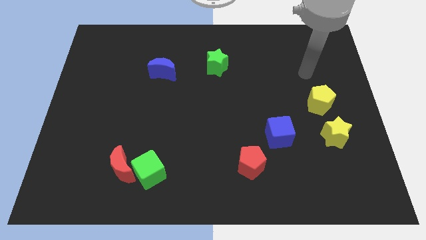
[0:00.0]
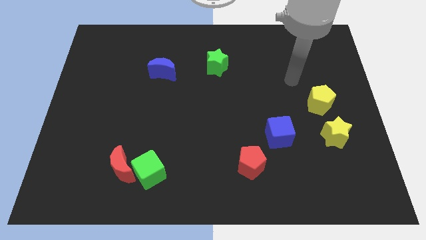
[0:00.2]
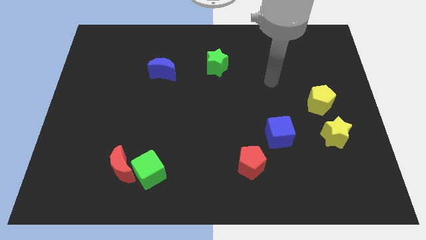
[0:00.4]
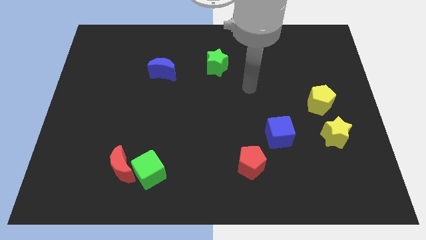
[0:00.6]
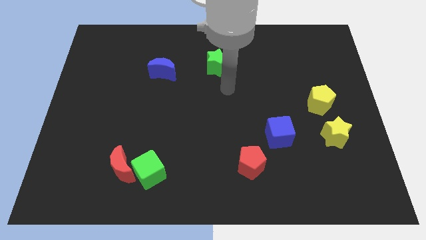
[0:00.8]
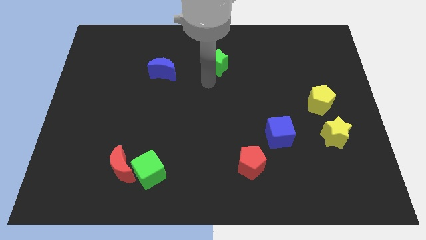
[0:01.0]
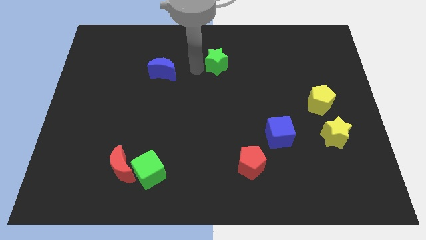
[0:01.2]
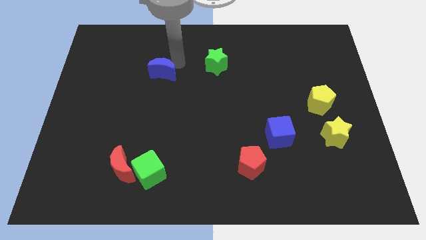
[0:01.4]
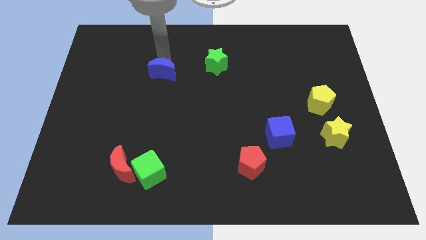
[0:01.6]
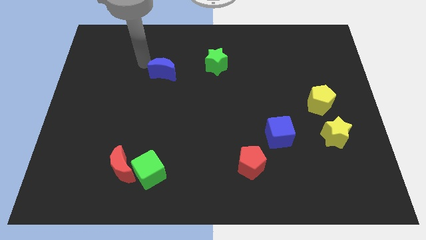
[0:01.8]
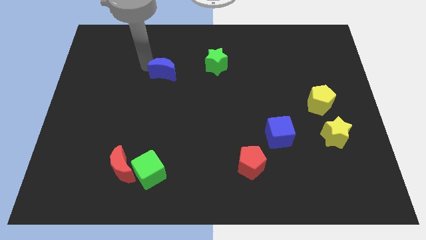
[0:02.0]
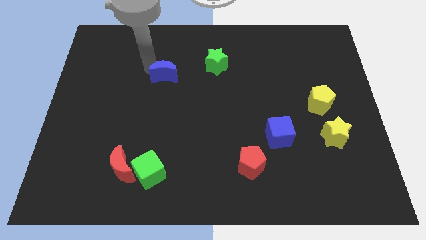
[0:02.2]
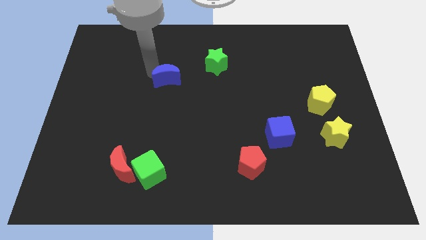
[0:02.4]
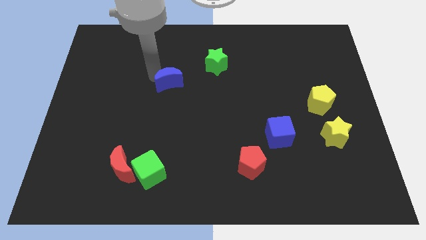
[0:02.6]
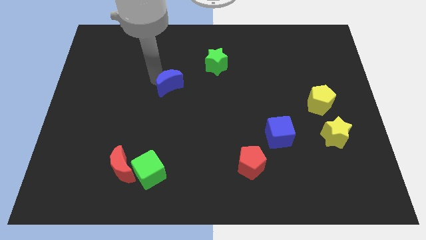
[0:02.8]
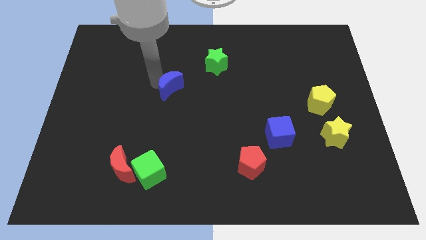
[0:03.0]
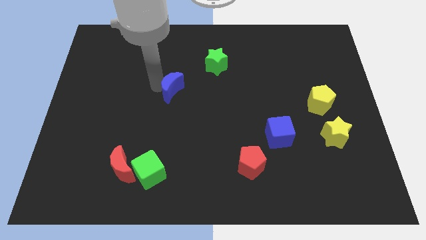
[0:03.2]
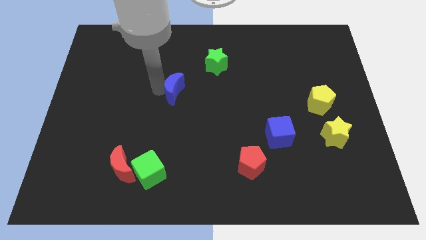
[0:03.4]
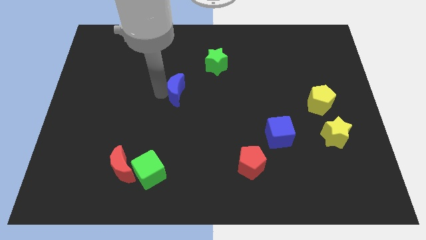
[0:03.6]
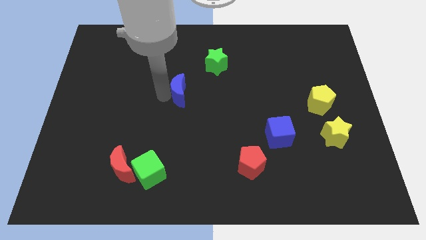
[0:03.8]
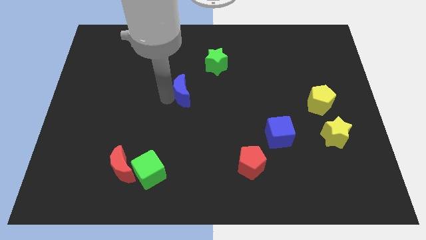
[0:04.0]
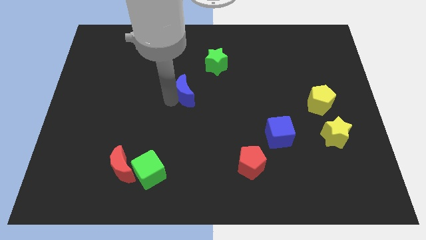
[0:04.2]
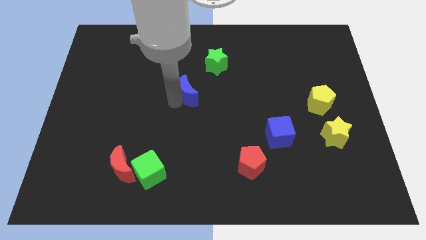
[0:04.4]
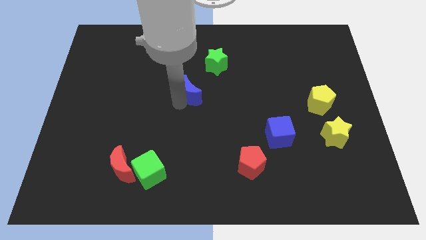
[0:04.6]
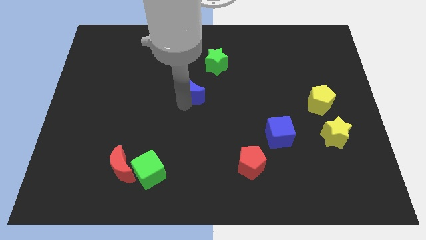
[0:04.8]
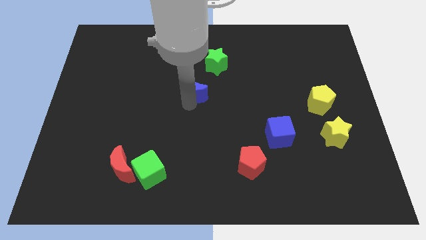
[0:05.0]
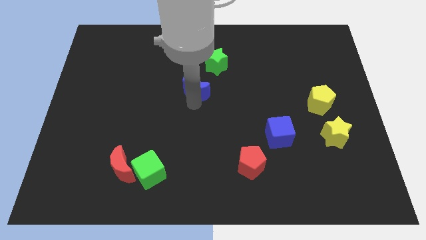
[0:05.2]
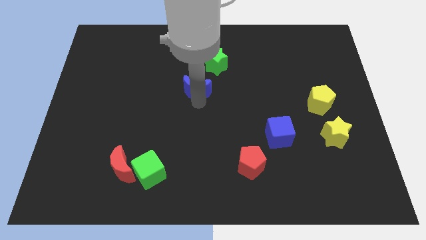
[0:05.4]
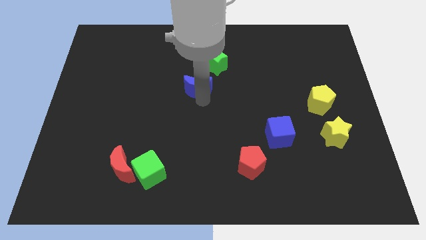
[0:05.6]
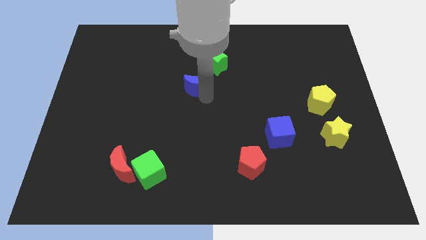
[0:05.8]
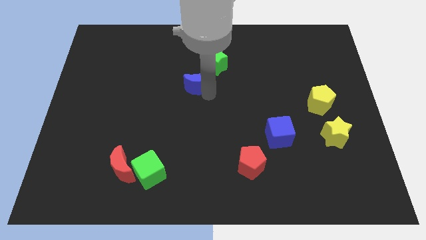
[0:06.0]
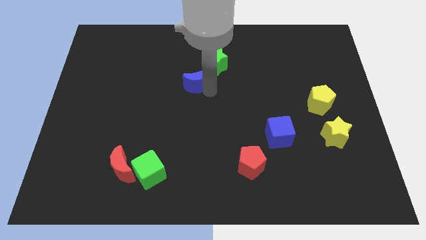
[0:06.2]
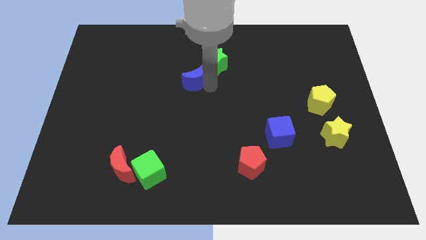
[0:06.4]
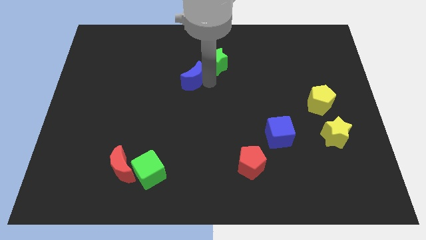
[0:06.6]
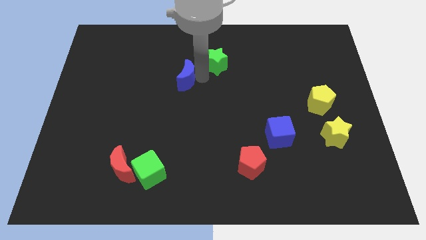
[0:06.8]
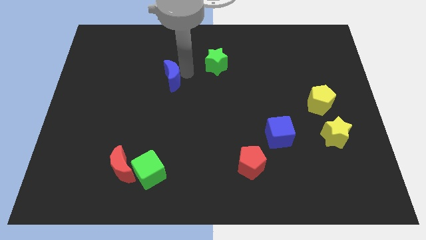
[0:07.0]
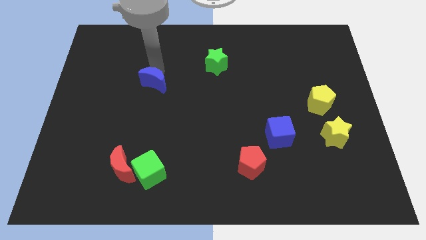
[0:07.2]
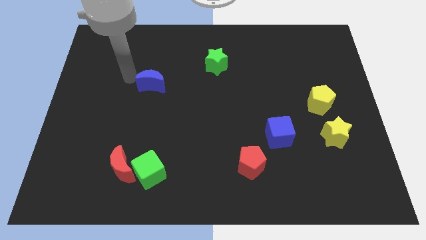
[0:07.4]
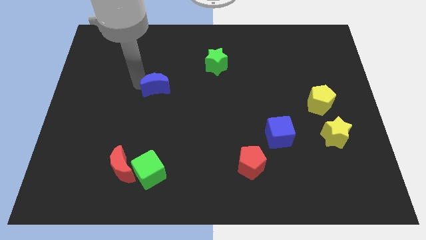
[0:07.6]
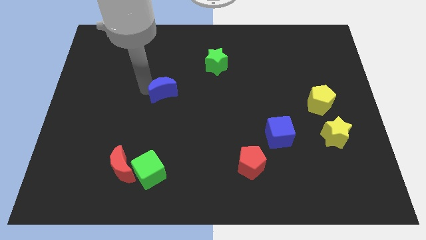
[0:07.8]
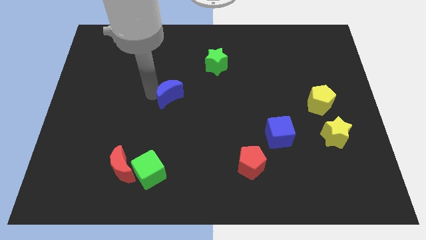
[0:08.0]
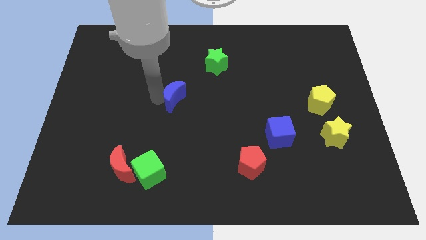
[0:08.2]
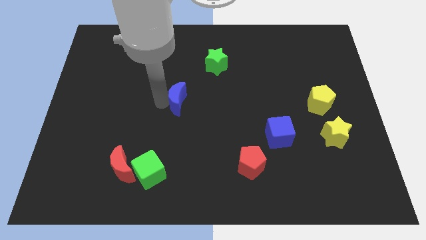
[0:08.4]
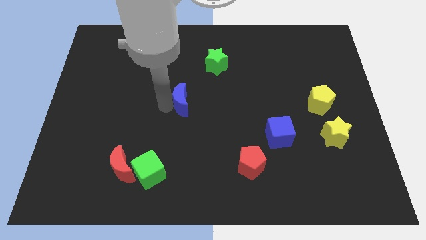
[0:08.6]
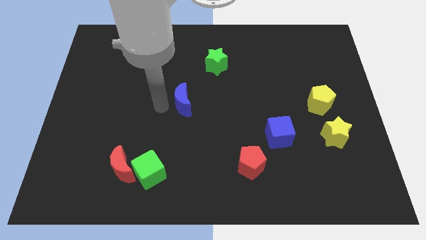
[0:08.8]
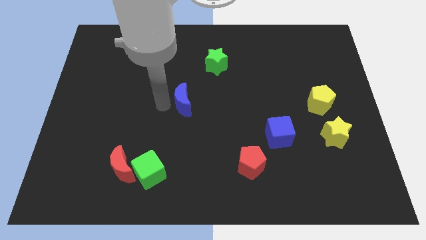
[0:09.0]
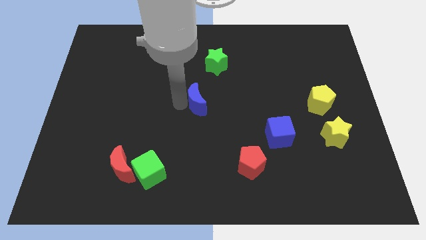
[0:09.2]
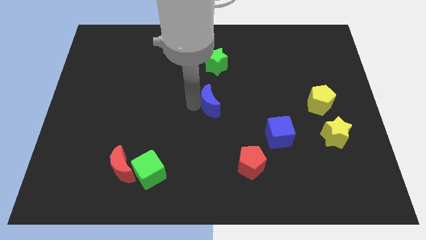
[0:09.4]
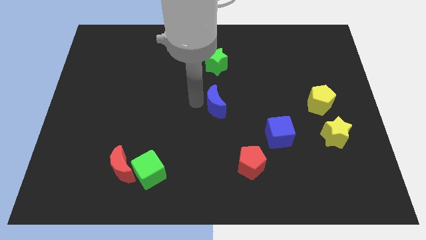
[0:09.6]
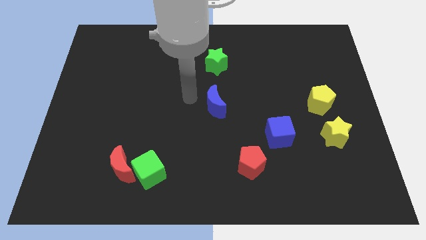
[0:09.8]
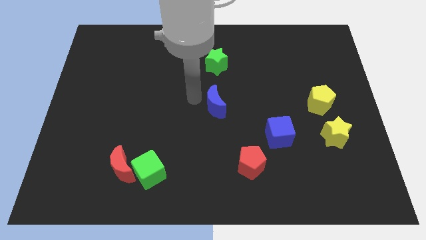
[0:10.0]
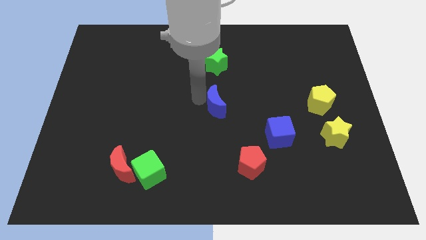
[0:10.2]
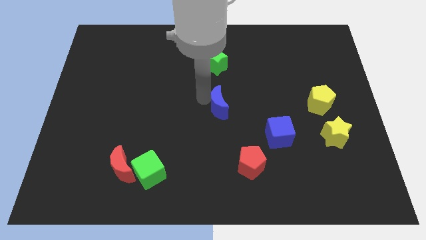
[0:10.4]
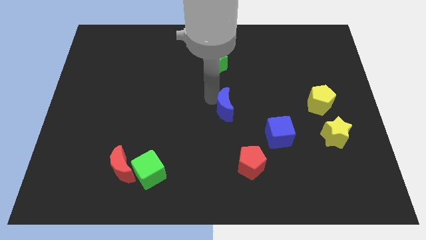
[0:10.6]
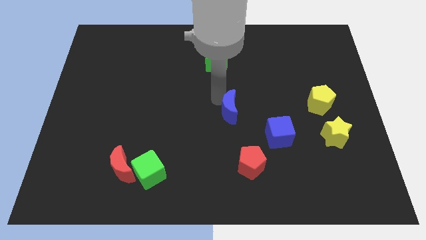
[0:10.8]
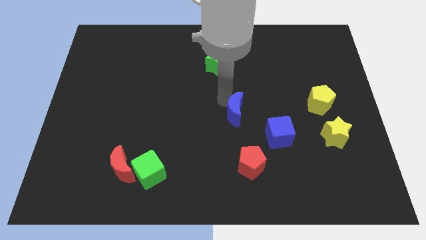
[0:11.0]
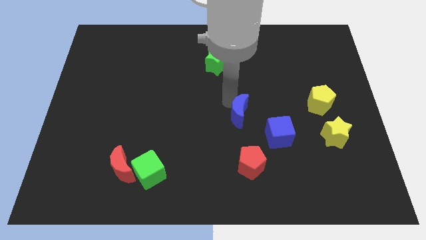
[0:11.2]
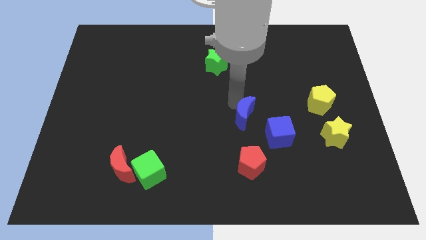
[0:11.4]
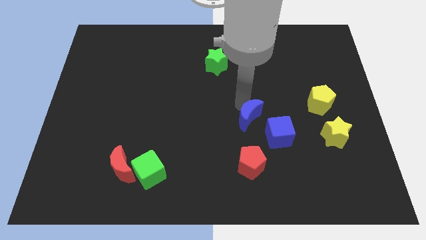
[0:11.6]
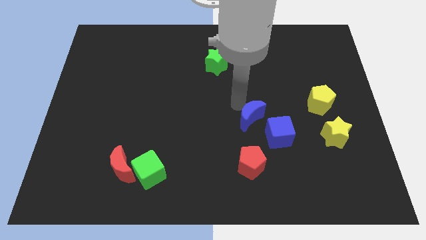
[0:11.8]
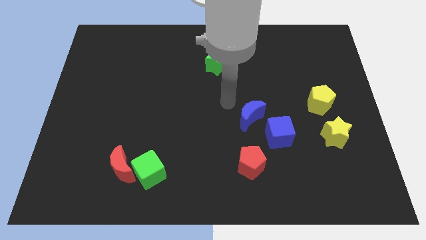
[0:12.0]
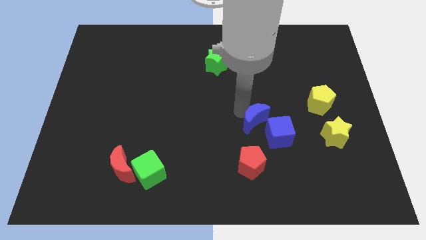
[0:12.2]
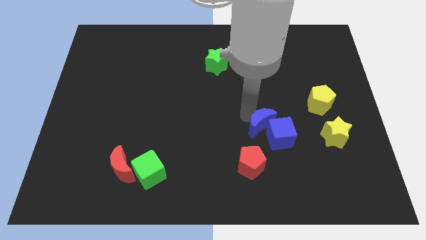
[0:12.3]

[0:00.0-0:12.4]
put the blue moon next to the blue cube

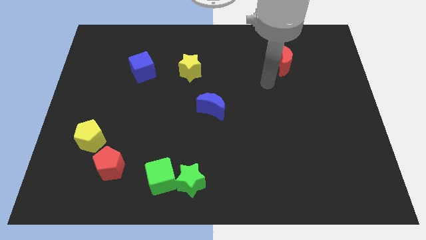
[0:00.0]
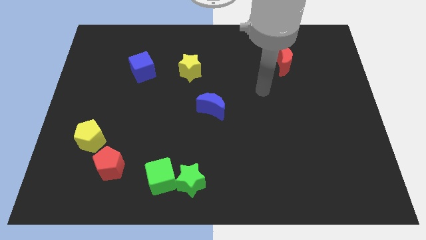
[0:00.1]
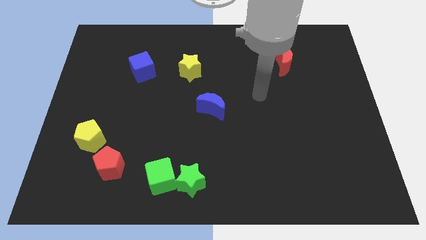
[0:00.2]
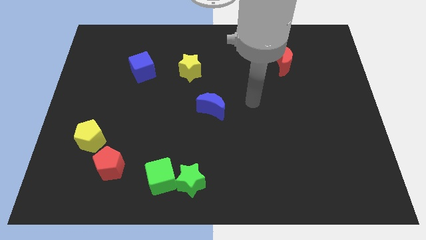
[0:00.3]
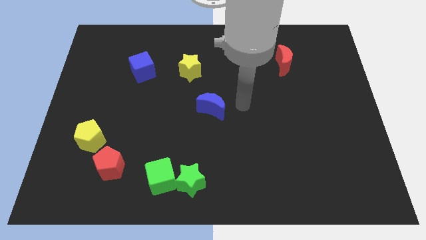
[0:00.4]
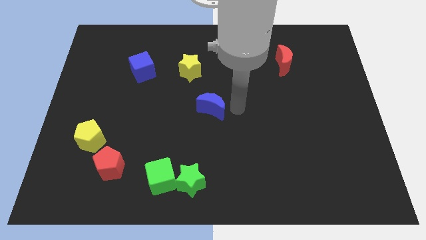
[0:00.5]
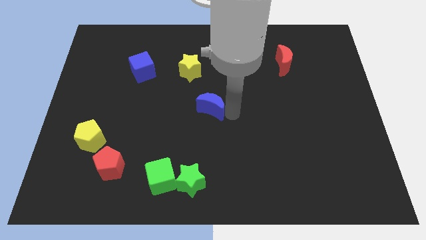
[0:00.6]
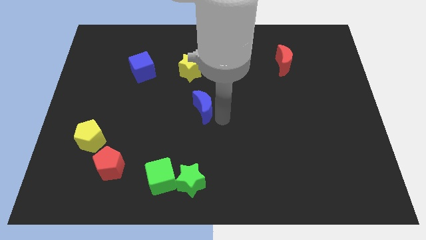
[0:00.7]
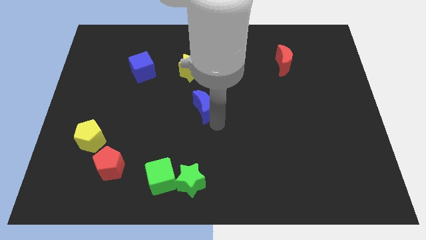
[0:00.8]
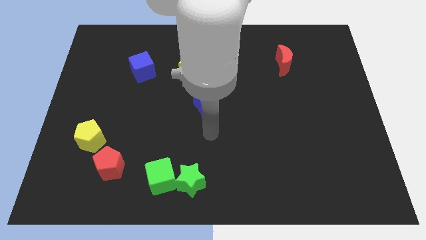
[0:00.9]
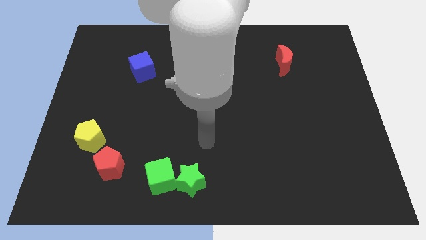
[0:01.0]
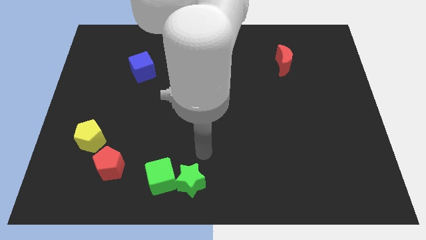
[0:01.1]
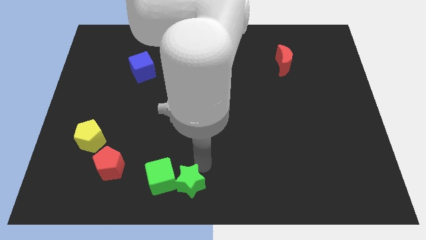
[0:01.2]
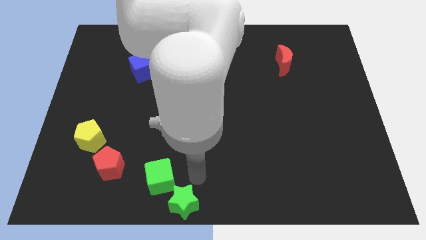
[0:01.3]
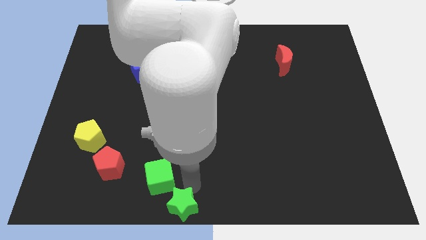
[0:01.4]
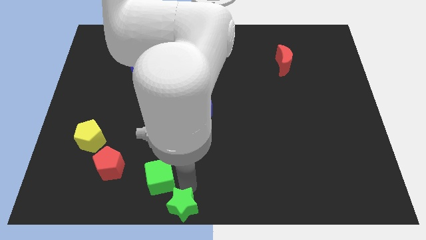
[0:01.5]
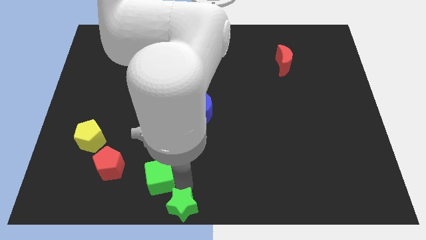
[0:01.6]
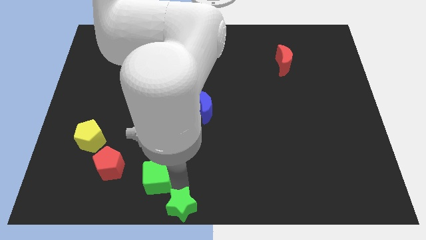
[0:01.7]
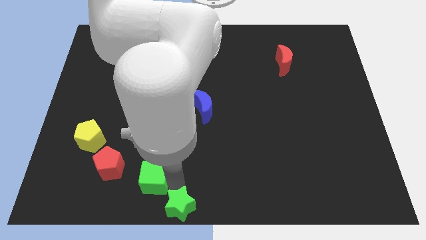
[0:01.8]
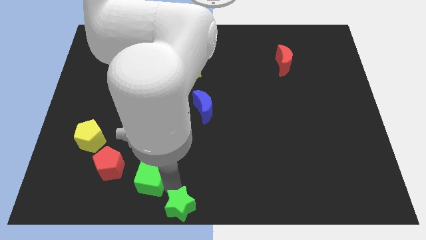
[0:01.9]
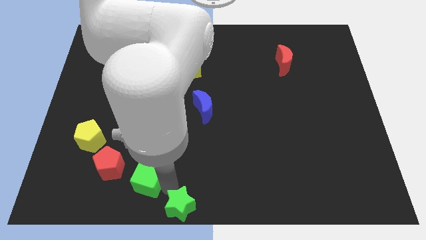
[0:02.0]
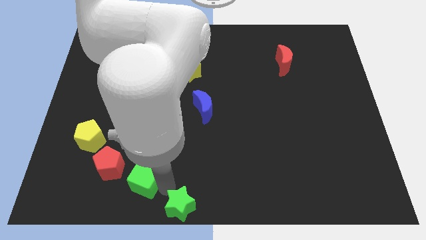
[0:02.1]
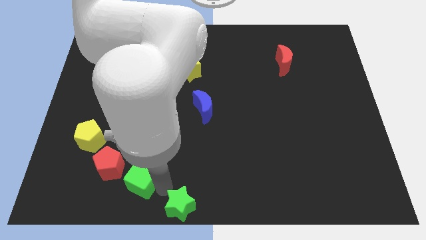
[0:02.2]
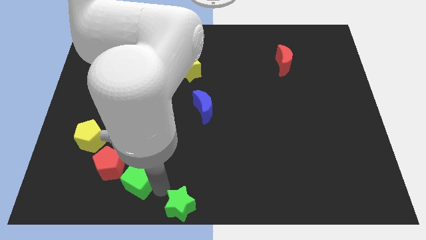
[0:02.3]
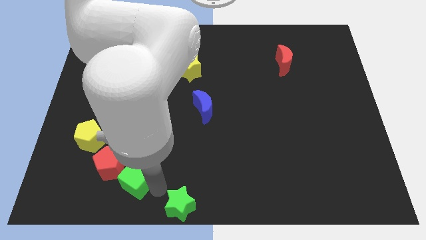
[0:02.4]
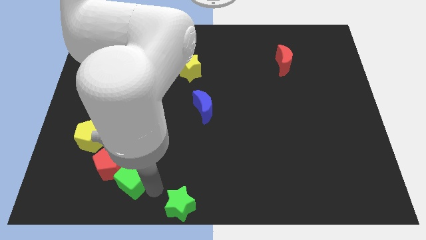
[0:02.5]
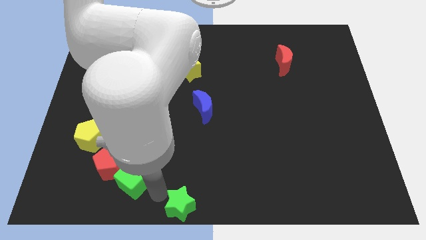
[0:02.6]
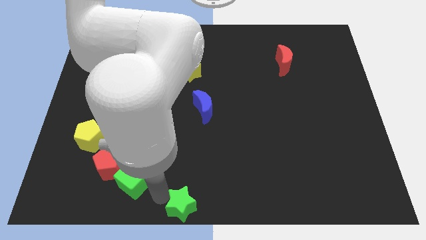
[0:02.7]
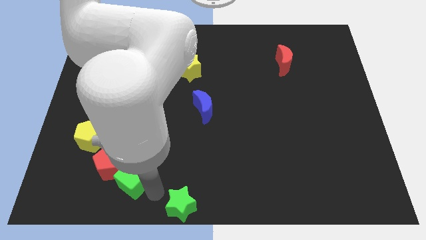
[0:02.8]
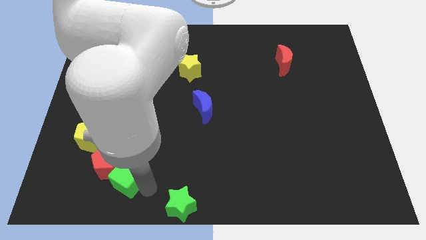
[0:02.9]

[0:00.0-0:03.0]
move the green cube towards the red pentagon
